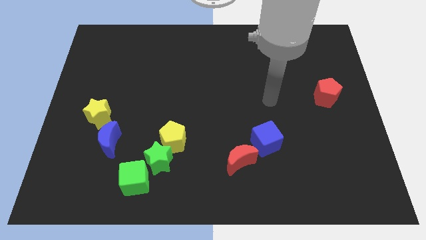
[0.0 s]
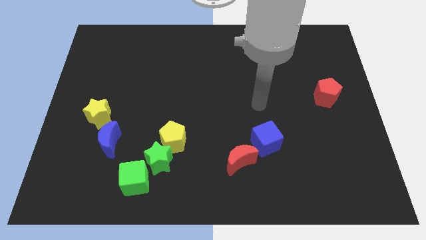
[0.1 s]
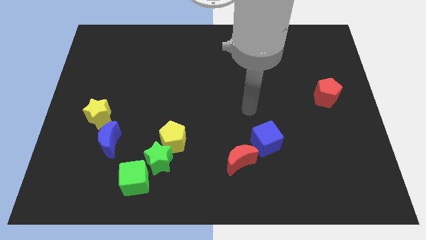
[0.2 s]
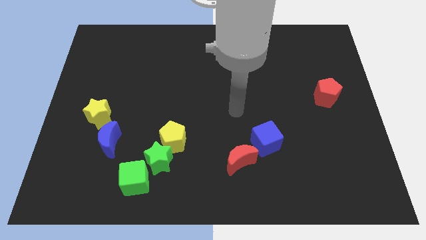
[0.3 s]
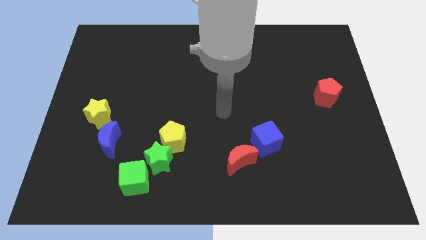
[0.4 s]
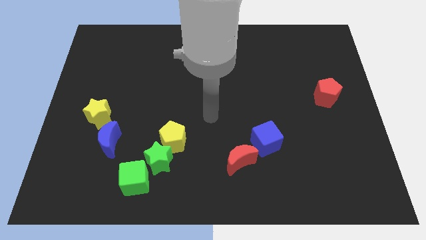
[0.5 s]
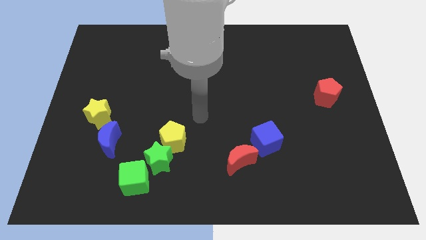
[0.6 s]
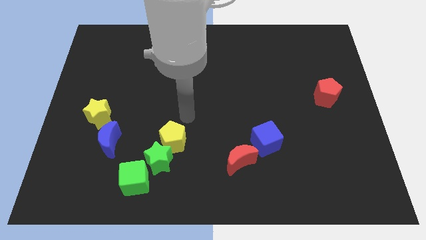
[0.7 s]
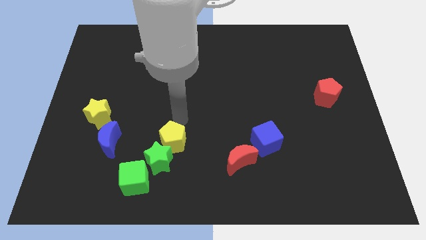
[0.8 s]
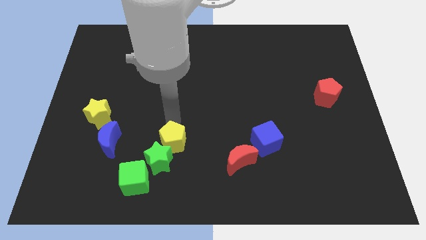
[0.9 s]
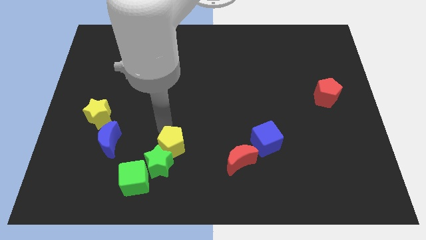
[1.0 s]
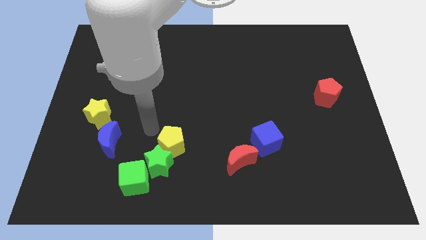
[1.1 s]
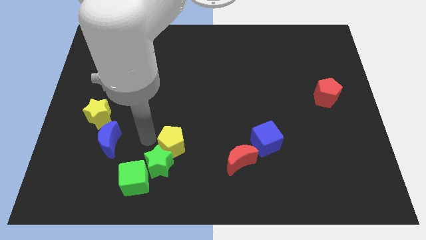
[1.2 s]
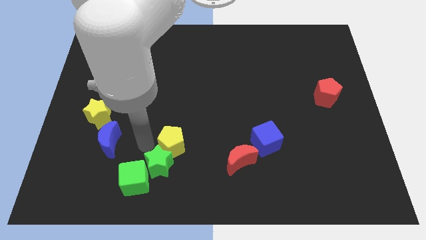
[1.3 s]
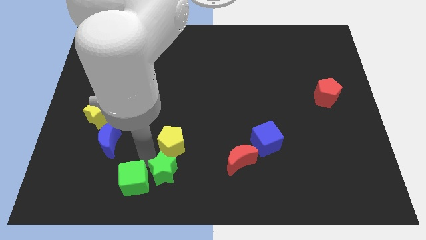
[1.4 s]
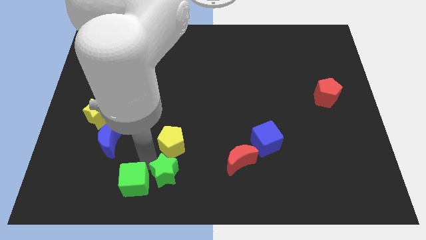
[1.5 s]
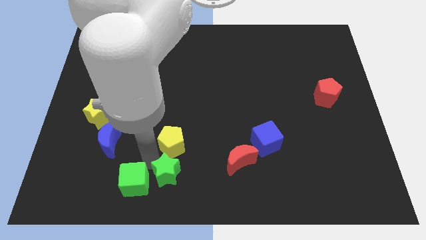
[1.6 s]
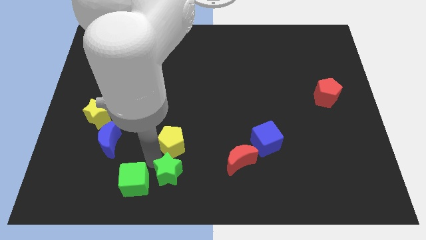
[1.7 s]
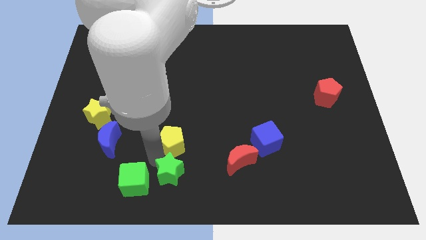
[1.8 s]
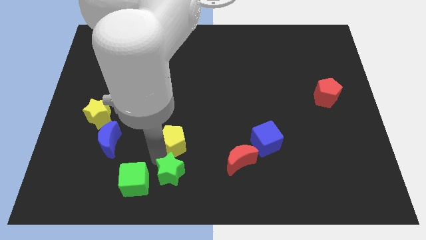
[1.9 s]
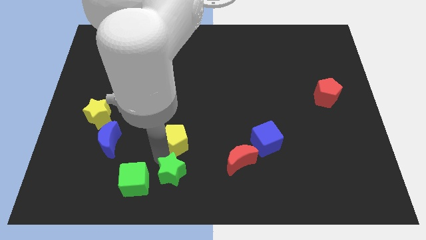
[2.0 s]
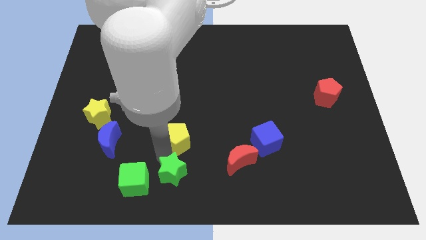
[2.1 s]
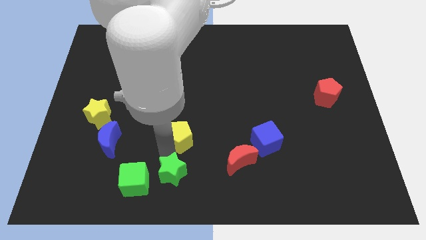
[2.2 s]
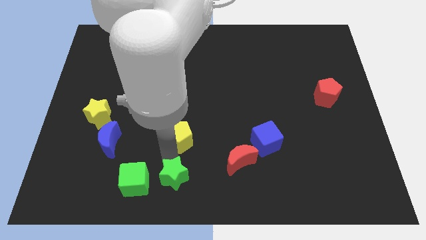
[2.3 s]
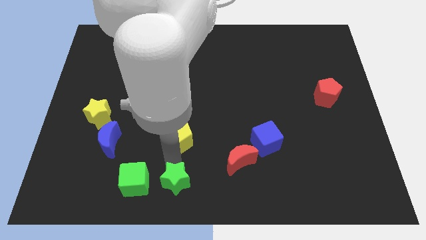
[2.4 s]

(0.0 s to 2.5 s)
pull the yellow pentagon apart from the green star

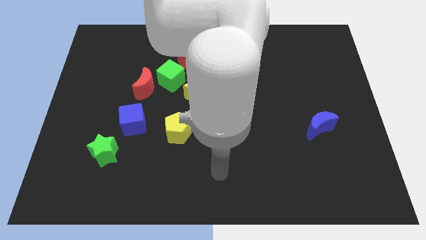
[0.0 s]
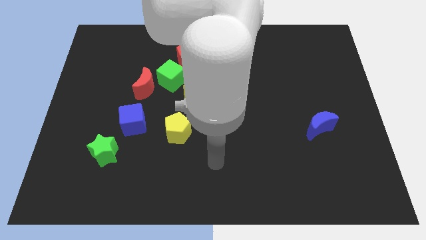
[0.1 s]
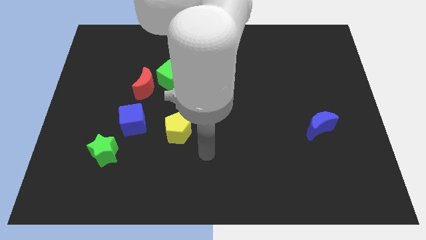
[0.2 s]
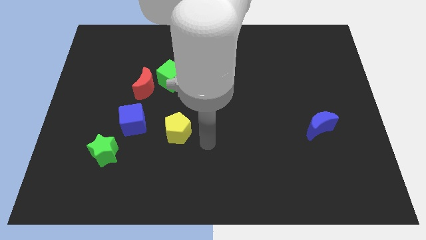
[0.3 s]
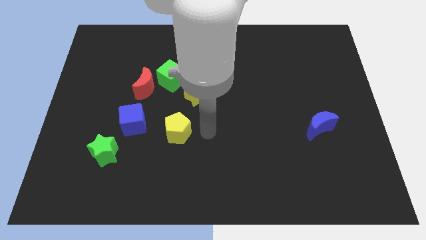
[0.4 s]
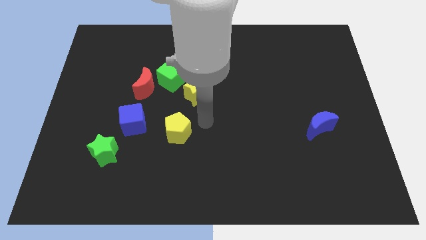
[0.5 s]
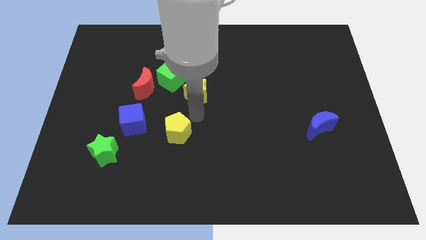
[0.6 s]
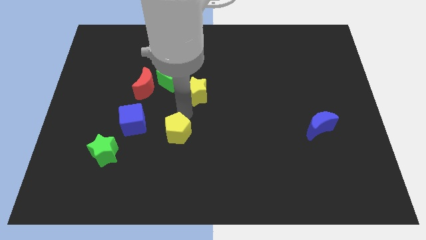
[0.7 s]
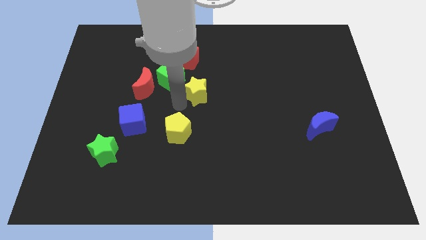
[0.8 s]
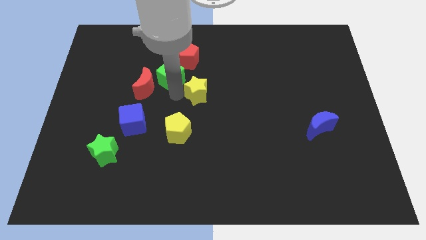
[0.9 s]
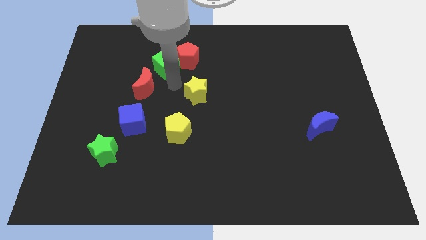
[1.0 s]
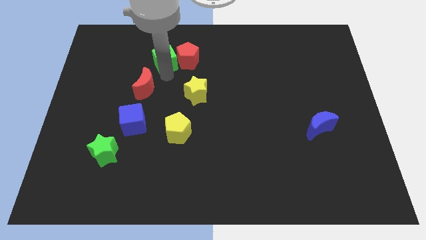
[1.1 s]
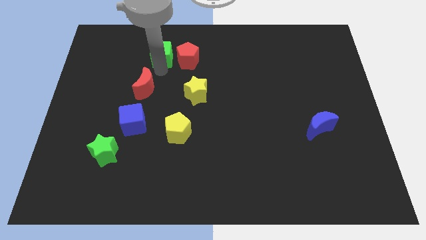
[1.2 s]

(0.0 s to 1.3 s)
move the red moon away from the green cube

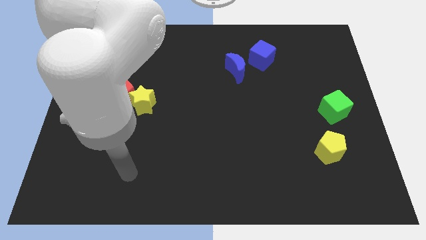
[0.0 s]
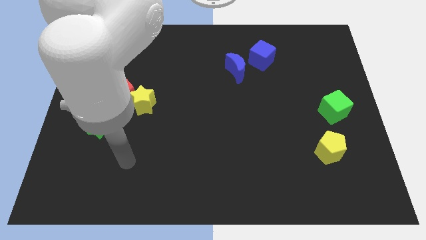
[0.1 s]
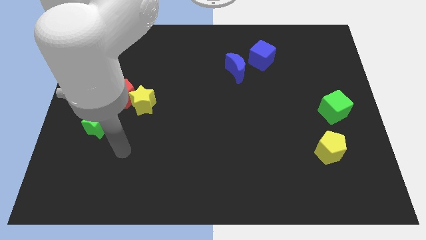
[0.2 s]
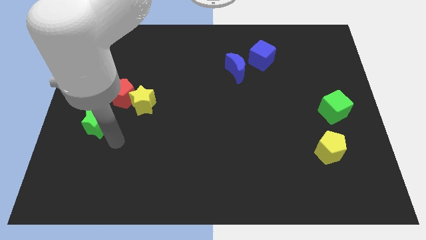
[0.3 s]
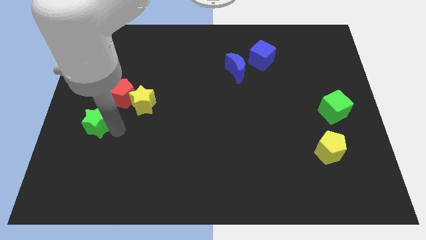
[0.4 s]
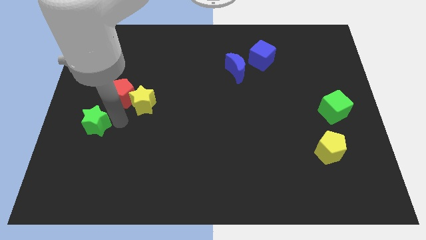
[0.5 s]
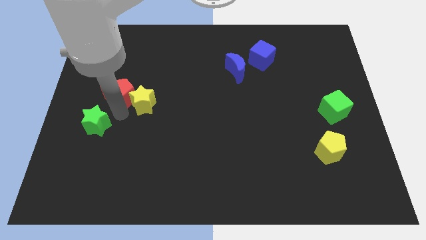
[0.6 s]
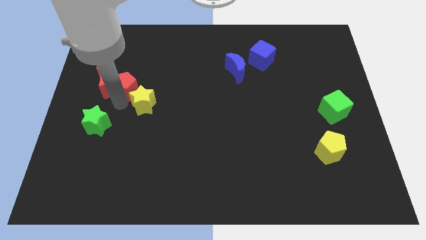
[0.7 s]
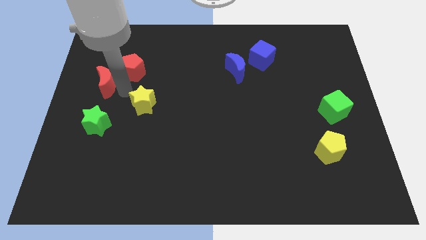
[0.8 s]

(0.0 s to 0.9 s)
pull the yellow star apart from the red pentagon

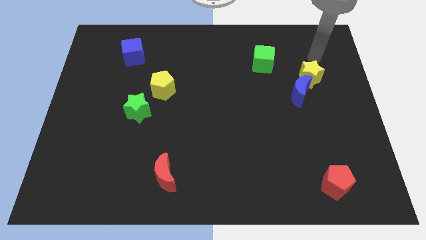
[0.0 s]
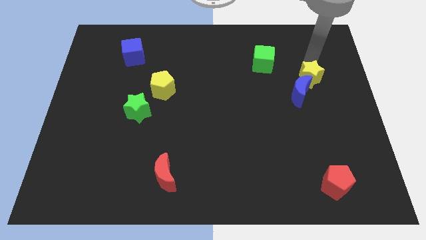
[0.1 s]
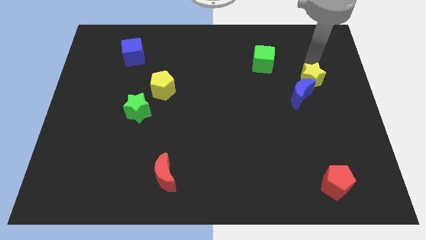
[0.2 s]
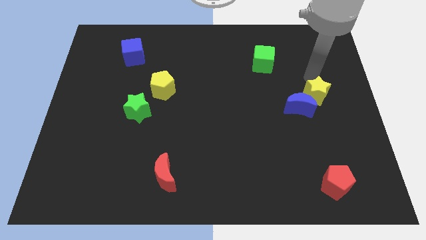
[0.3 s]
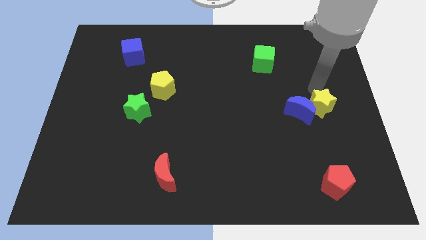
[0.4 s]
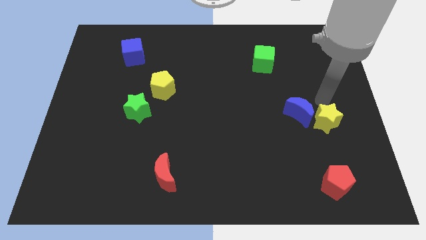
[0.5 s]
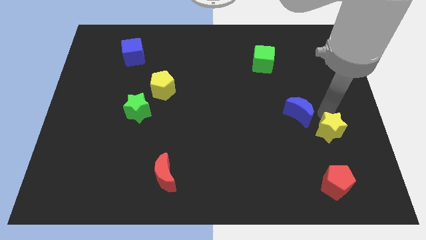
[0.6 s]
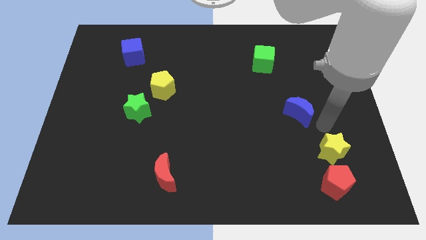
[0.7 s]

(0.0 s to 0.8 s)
pull the blue moon apart from the yellow star

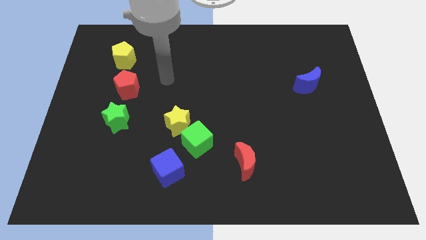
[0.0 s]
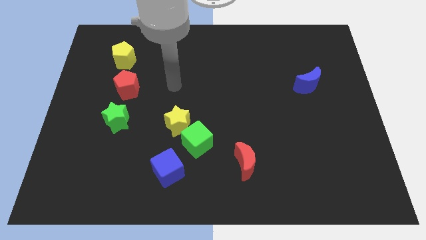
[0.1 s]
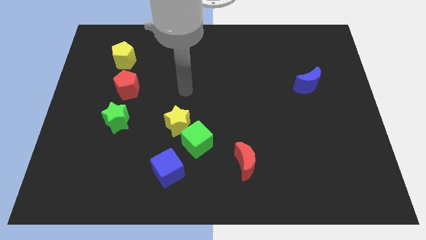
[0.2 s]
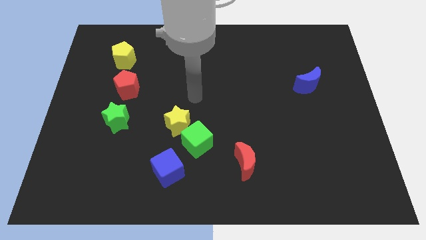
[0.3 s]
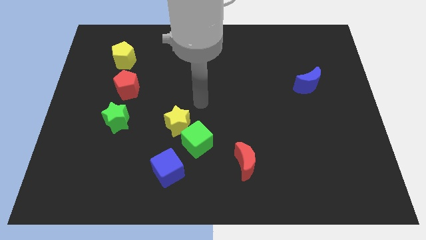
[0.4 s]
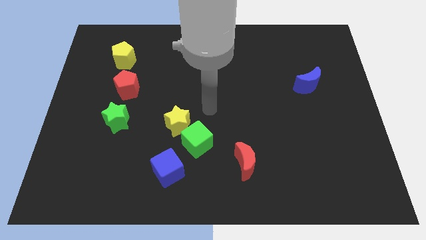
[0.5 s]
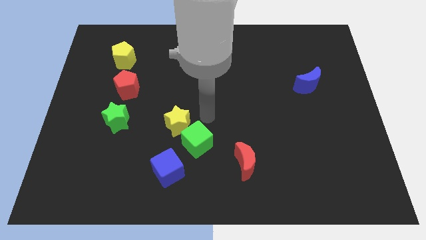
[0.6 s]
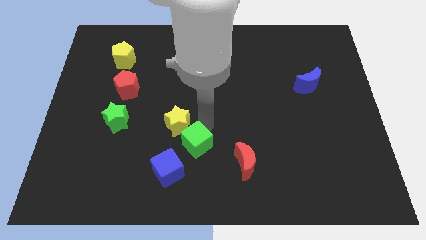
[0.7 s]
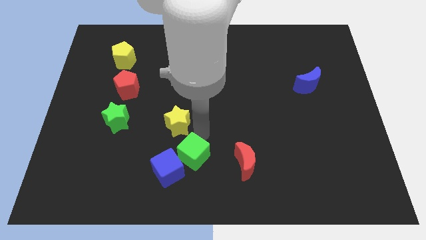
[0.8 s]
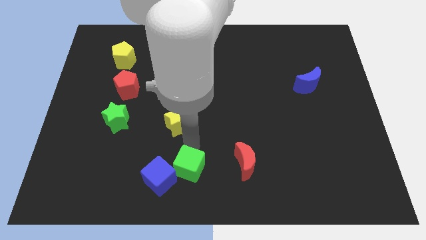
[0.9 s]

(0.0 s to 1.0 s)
pull the yellow star apart from the green cube

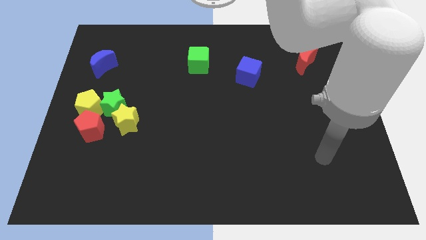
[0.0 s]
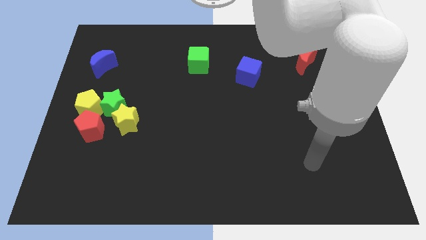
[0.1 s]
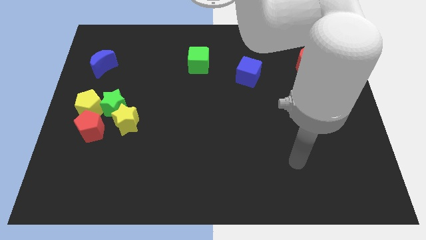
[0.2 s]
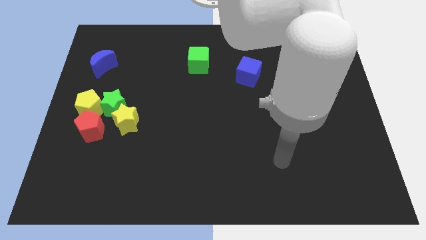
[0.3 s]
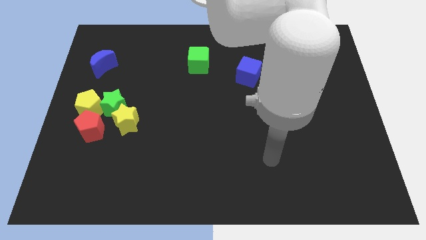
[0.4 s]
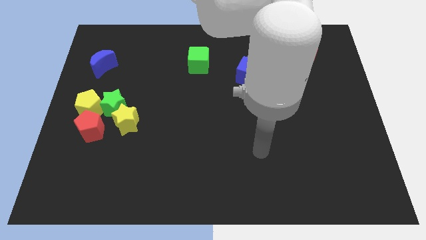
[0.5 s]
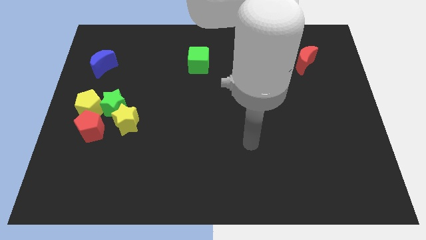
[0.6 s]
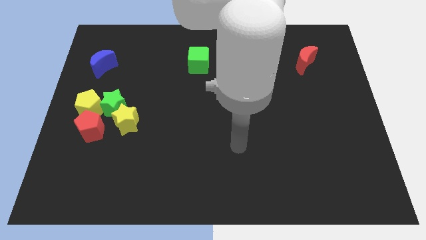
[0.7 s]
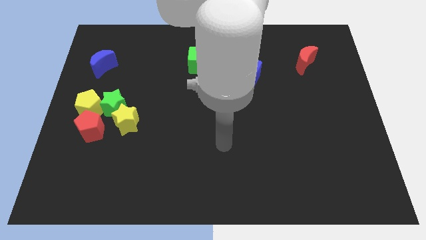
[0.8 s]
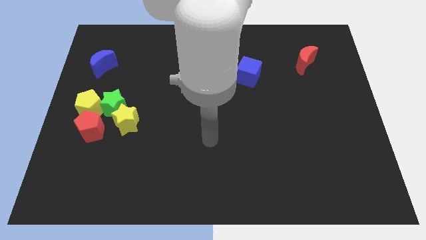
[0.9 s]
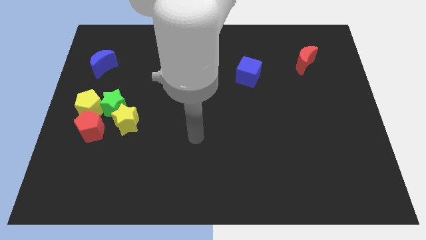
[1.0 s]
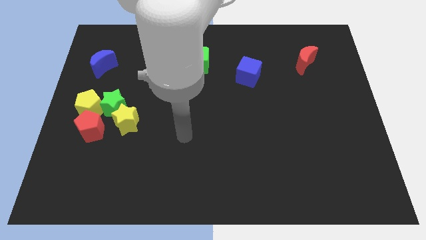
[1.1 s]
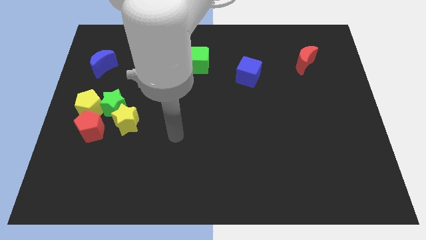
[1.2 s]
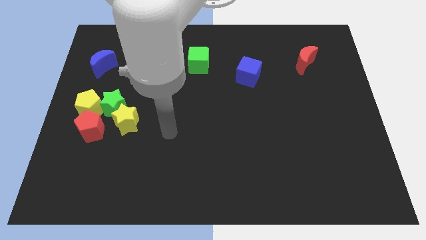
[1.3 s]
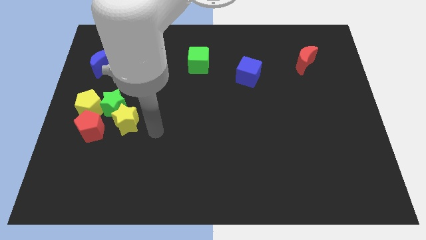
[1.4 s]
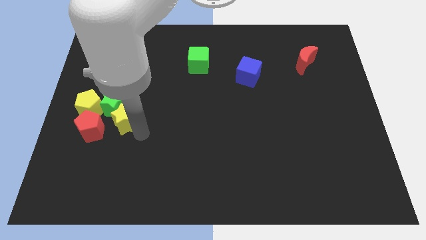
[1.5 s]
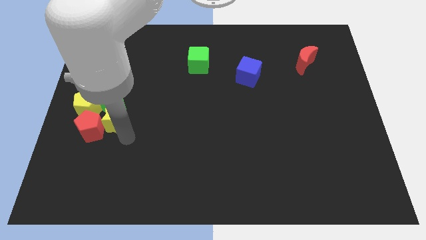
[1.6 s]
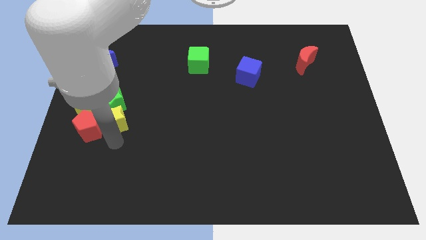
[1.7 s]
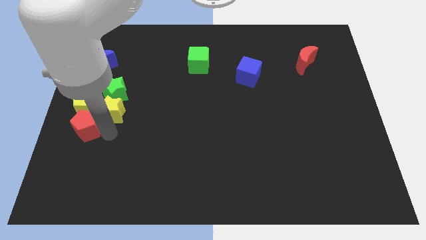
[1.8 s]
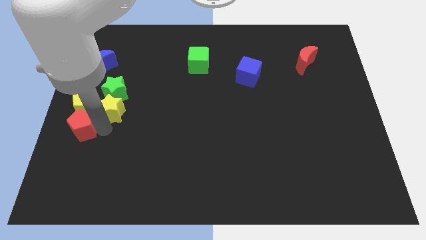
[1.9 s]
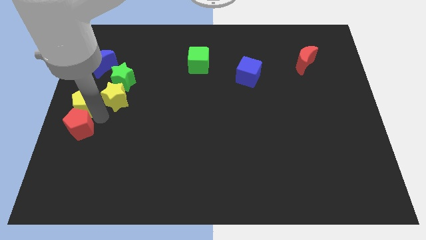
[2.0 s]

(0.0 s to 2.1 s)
pull the green star apart from the group of blocks

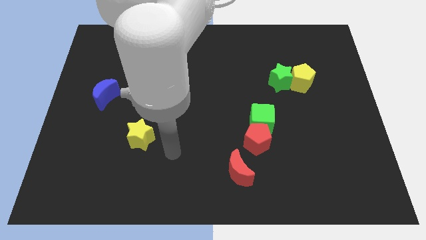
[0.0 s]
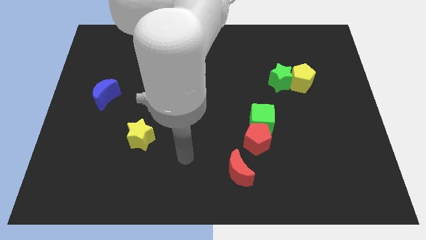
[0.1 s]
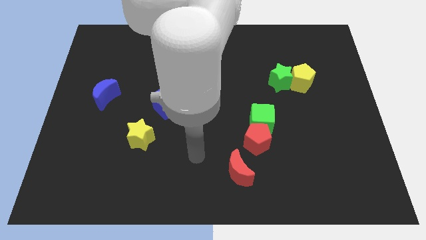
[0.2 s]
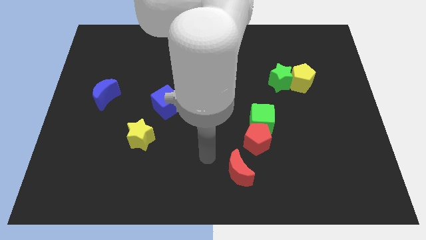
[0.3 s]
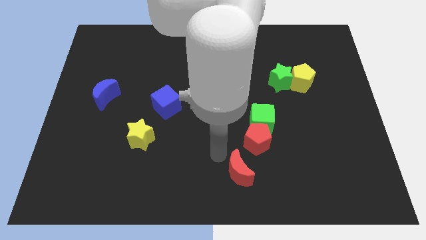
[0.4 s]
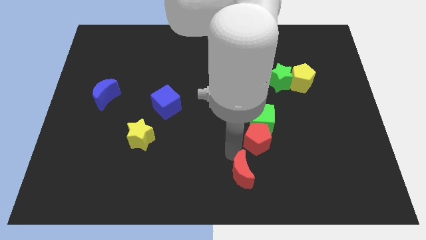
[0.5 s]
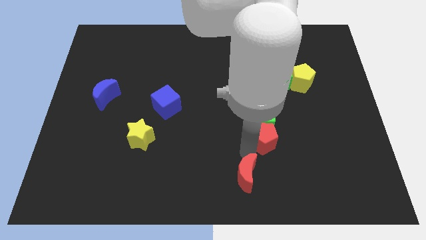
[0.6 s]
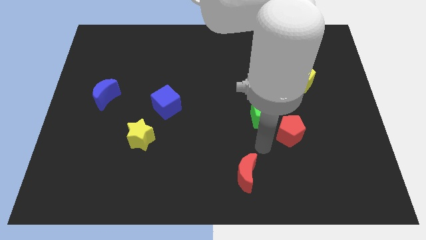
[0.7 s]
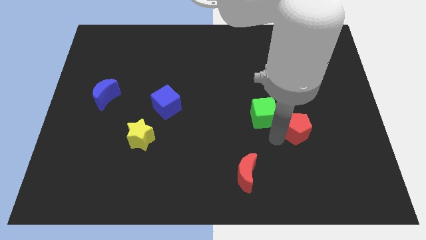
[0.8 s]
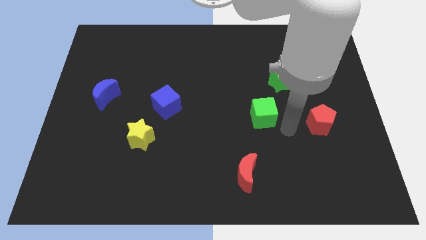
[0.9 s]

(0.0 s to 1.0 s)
separate the green cube from the red pentagon
